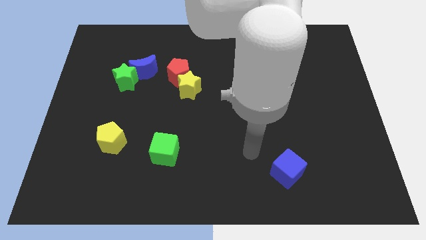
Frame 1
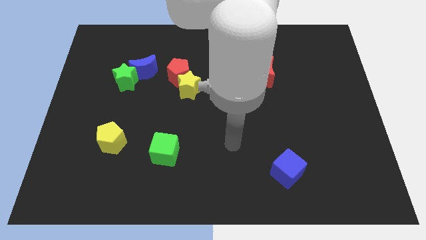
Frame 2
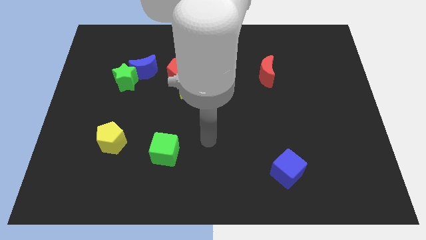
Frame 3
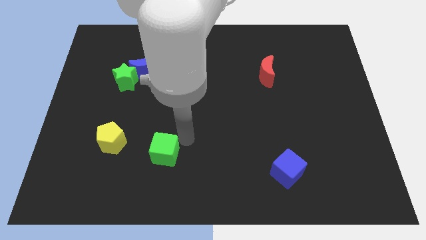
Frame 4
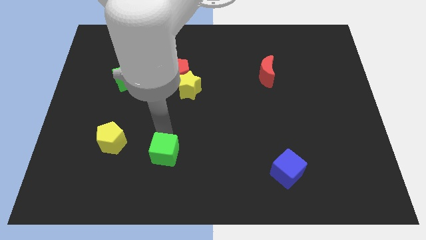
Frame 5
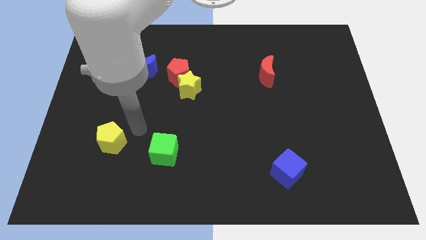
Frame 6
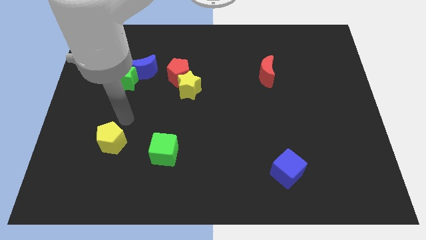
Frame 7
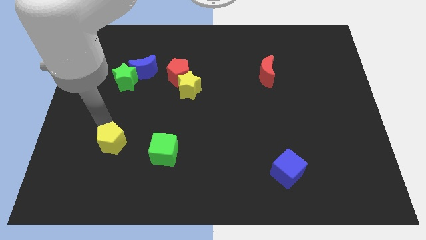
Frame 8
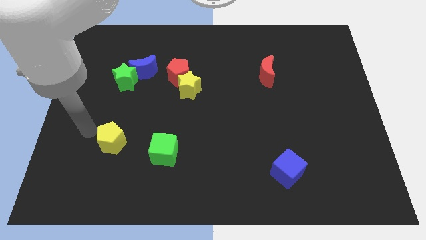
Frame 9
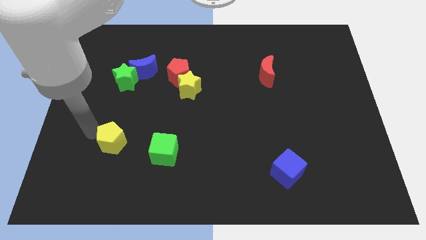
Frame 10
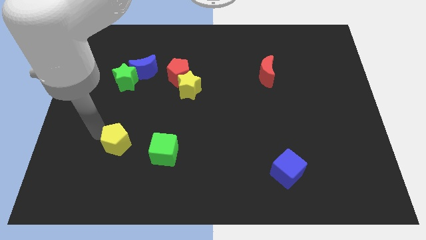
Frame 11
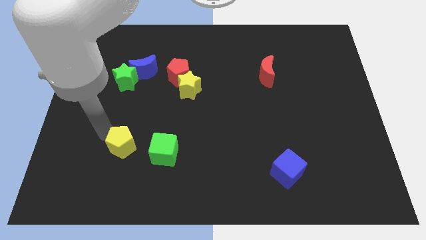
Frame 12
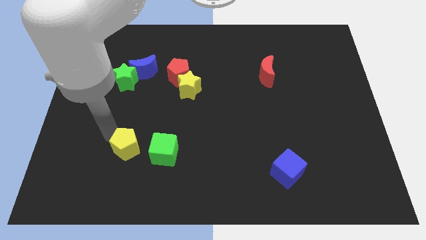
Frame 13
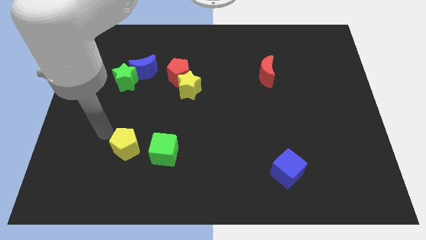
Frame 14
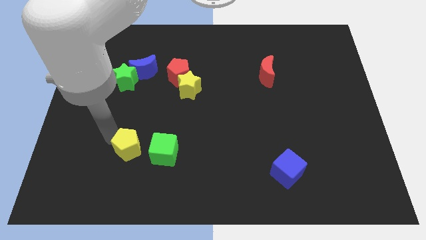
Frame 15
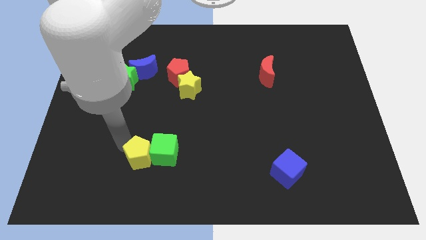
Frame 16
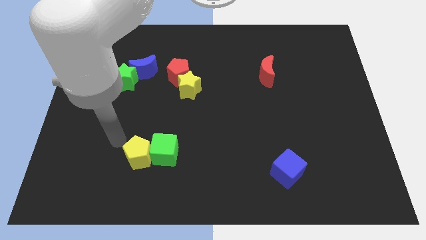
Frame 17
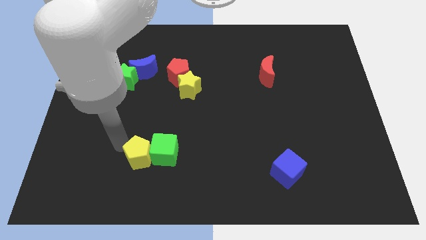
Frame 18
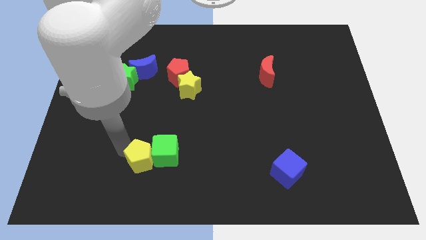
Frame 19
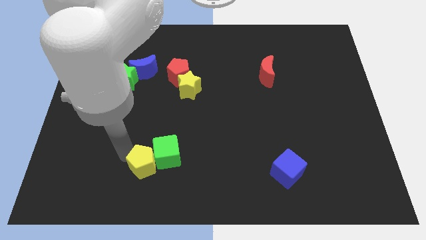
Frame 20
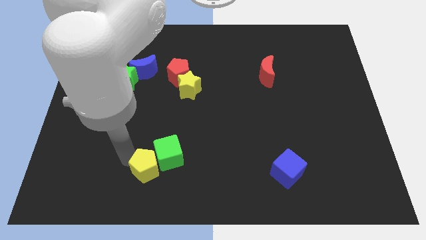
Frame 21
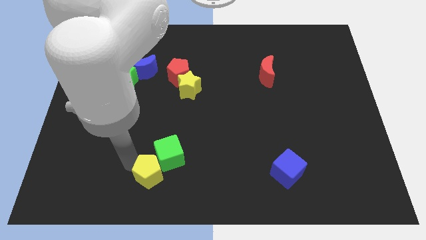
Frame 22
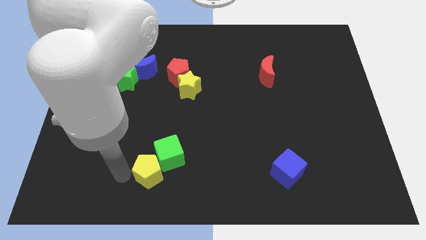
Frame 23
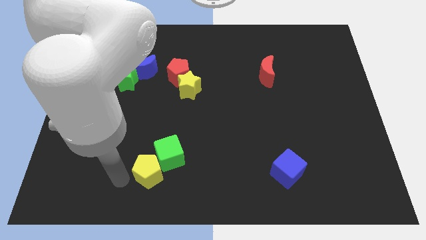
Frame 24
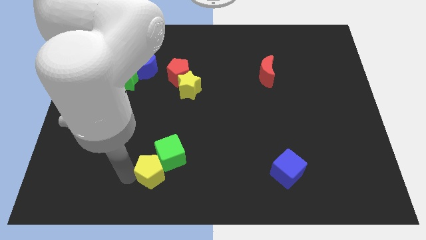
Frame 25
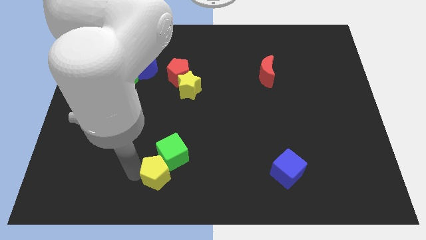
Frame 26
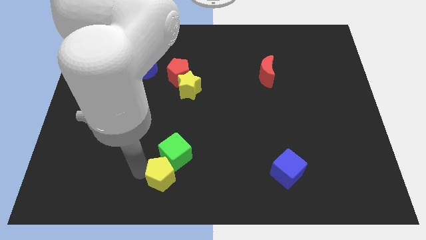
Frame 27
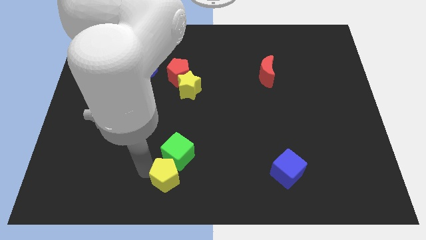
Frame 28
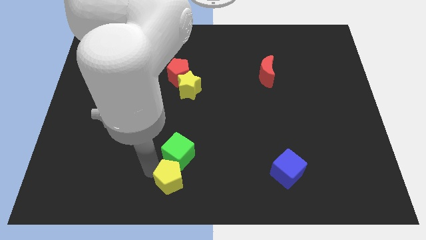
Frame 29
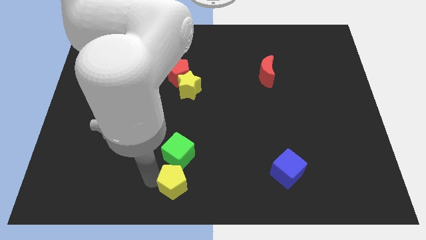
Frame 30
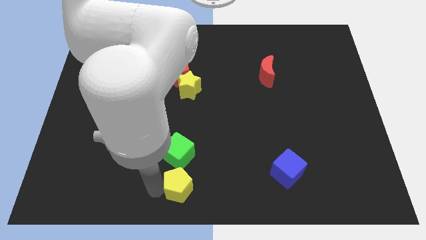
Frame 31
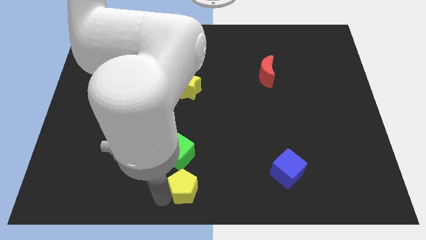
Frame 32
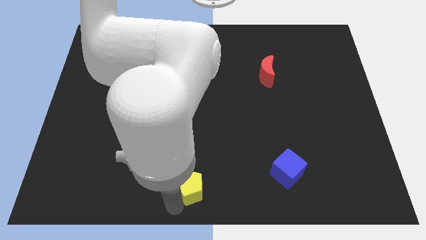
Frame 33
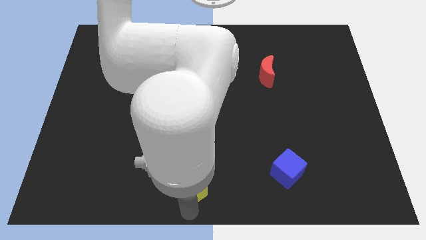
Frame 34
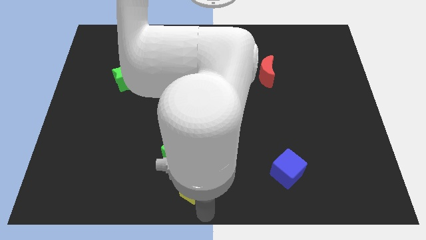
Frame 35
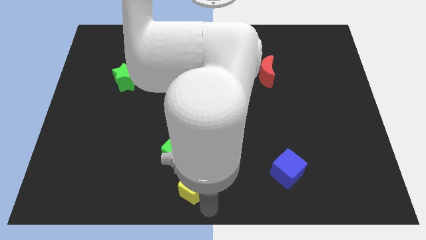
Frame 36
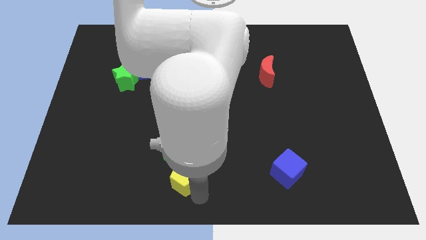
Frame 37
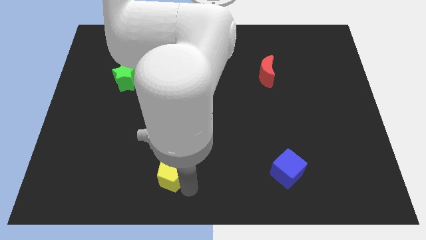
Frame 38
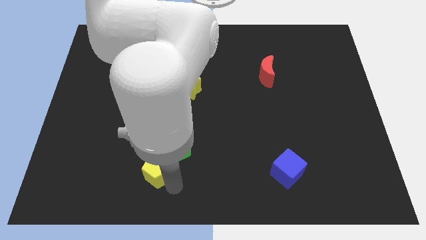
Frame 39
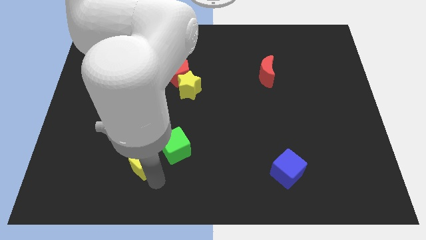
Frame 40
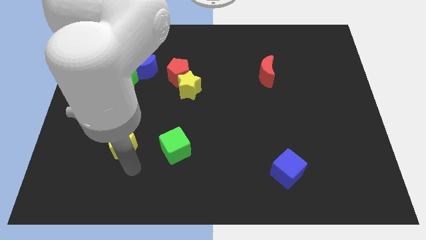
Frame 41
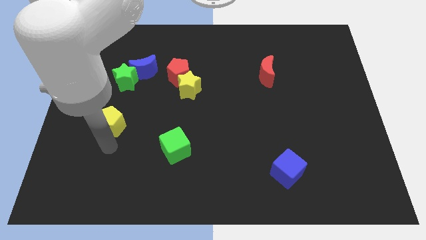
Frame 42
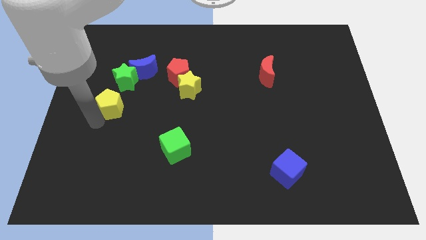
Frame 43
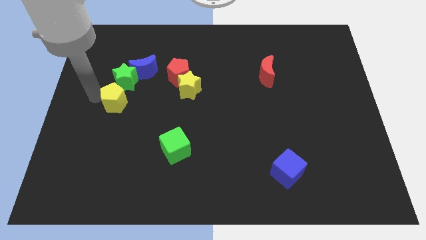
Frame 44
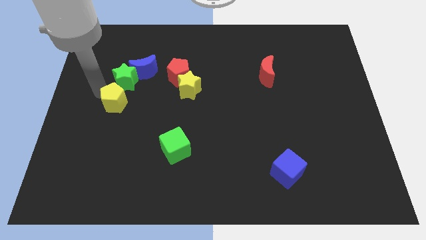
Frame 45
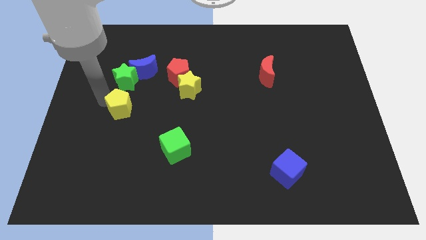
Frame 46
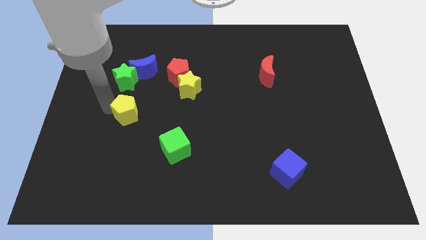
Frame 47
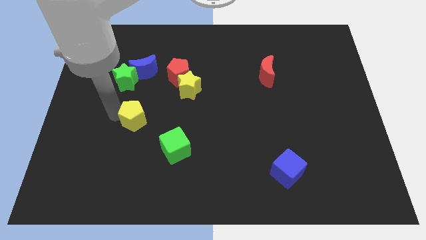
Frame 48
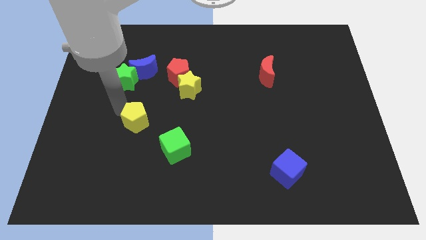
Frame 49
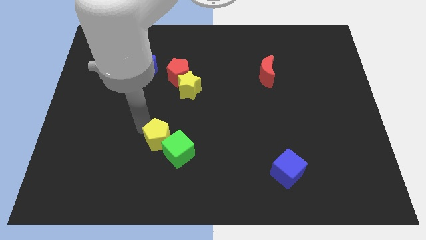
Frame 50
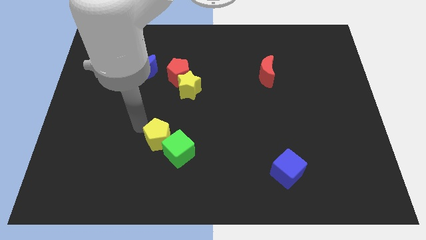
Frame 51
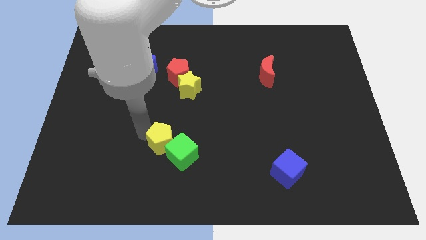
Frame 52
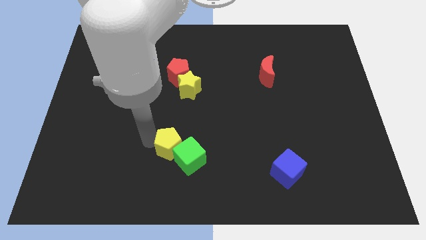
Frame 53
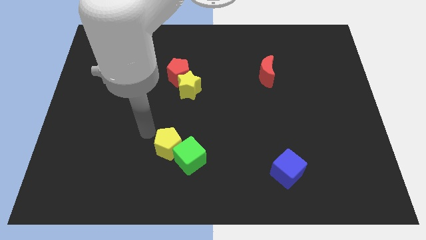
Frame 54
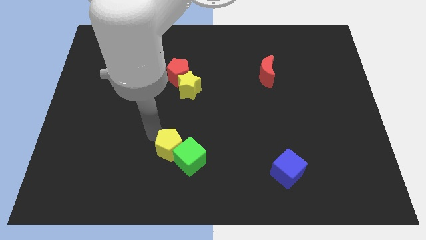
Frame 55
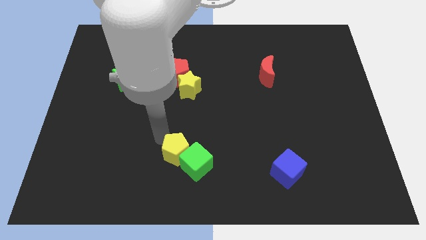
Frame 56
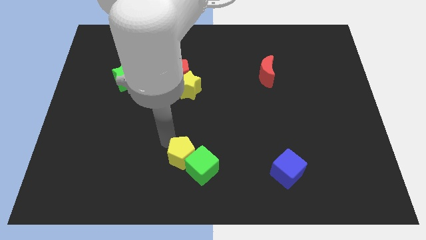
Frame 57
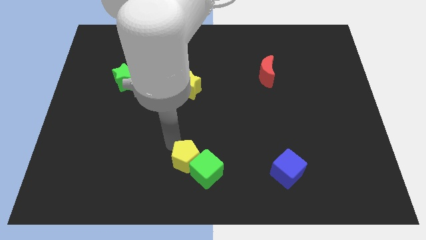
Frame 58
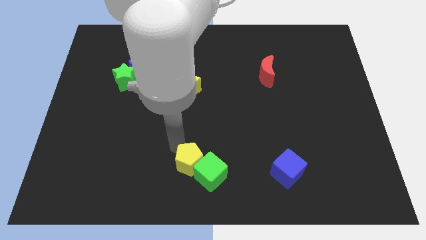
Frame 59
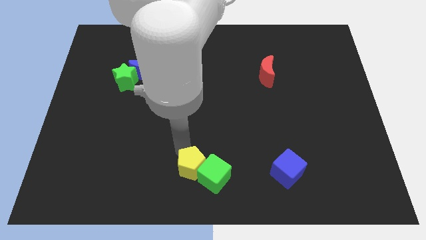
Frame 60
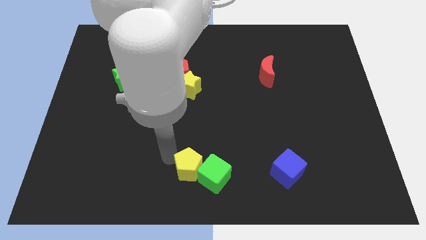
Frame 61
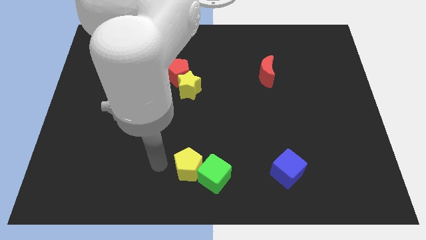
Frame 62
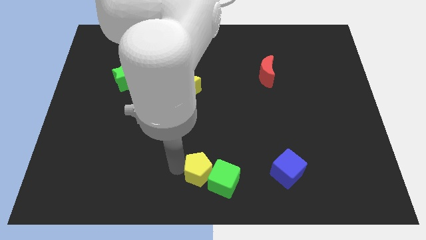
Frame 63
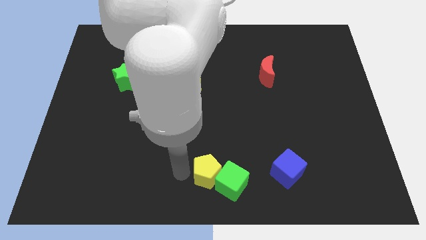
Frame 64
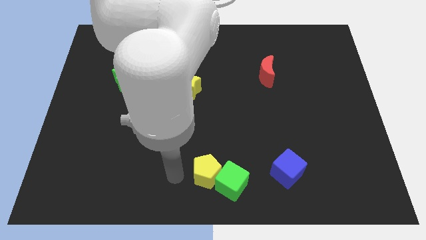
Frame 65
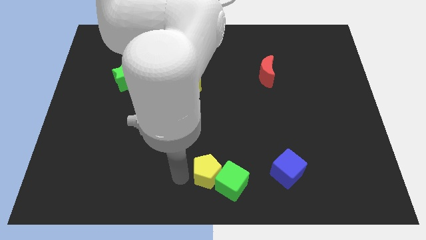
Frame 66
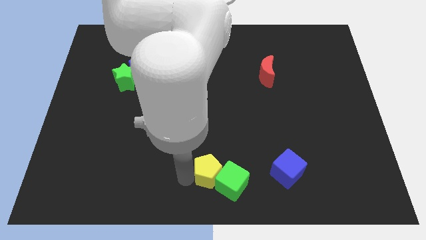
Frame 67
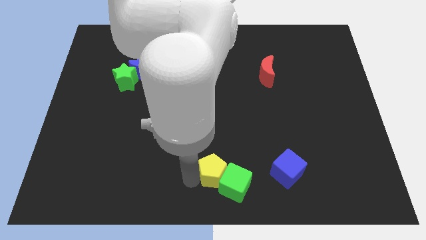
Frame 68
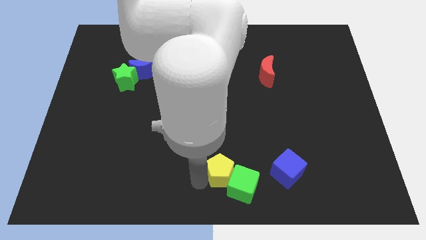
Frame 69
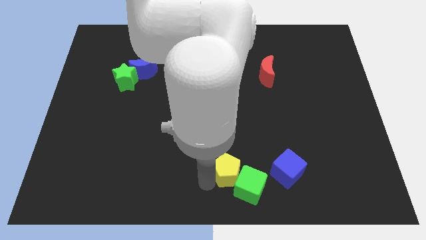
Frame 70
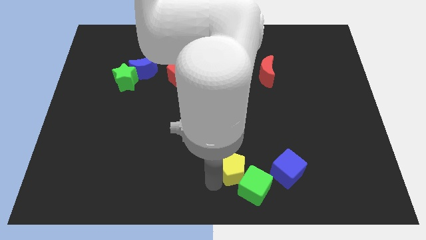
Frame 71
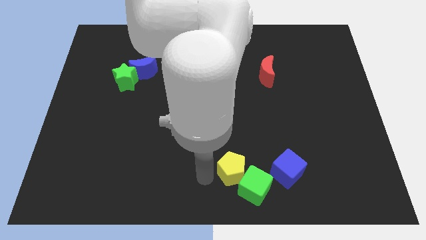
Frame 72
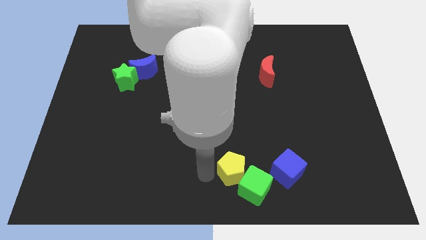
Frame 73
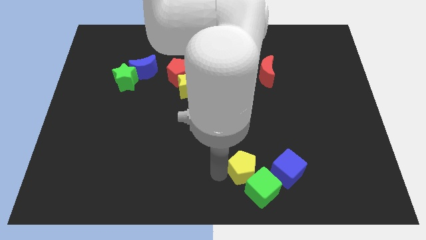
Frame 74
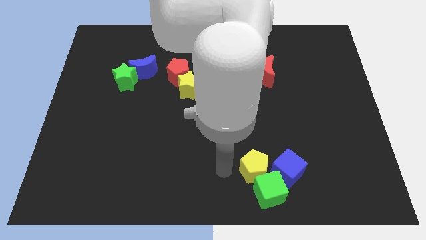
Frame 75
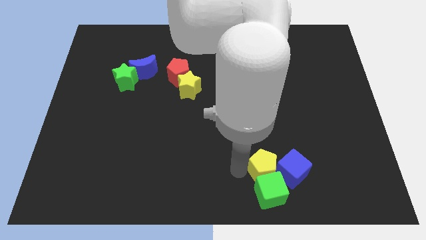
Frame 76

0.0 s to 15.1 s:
put the yellow pentagon next to the blue cube

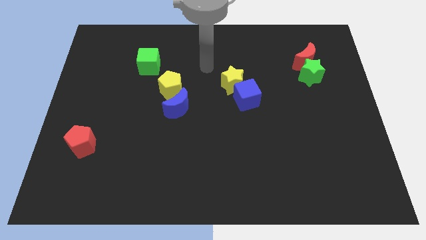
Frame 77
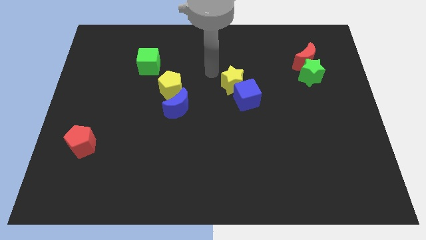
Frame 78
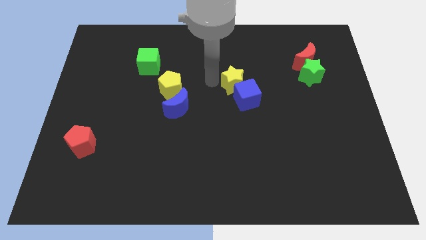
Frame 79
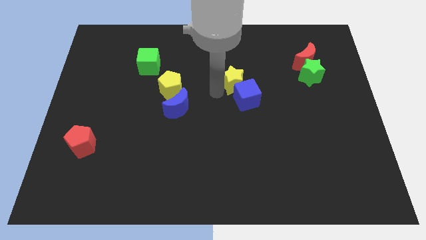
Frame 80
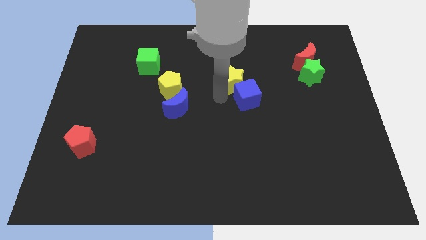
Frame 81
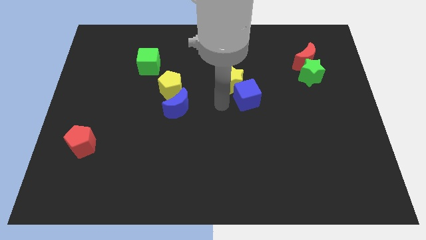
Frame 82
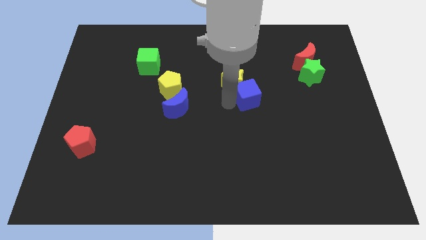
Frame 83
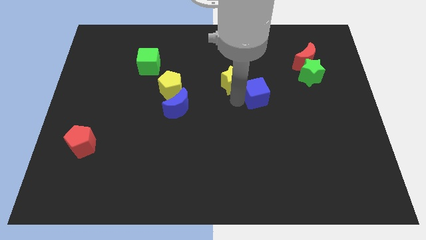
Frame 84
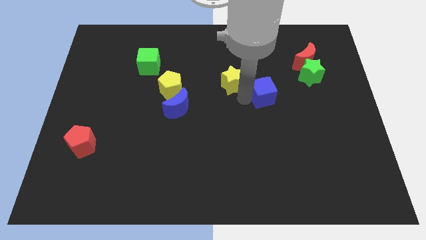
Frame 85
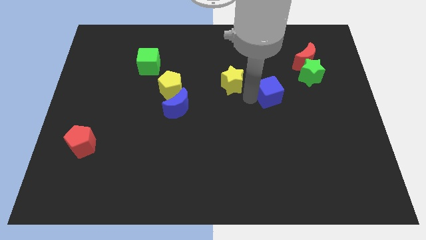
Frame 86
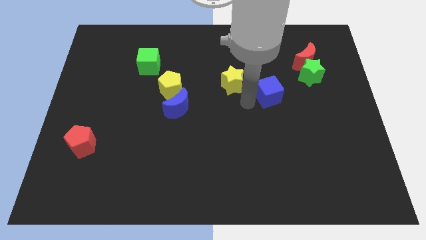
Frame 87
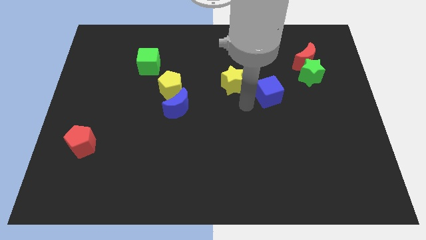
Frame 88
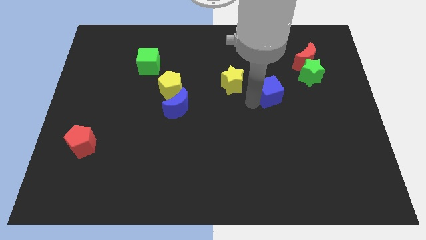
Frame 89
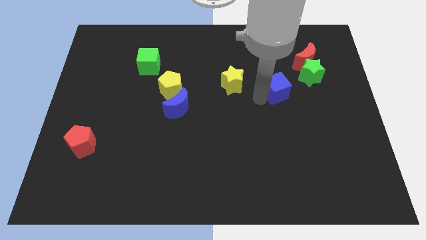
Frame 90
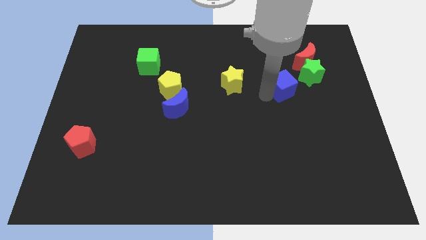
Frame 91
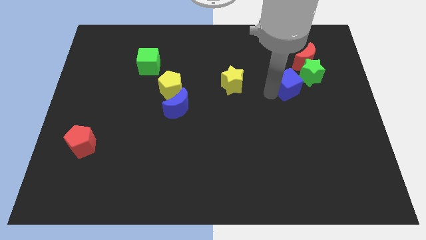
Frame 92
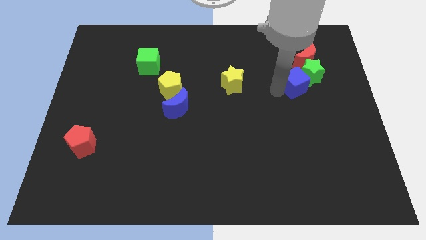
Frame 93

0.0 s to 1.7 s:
push the blue cube to the green star
